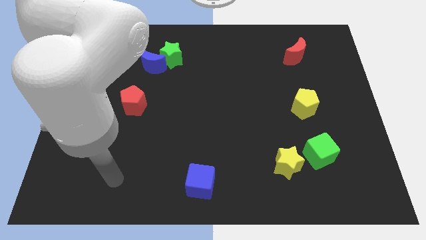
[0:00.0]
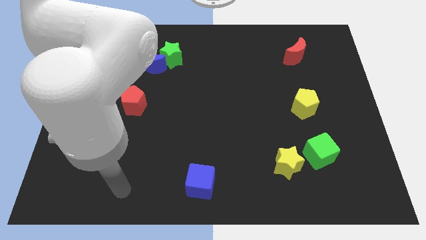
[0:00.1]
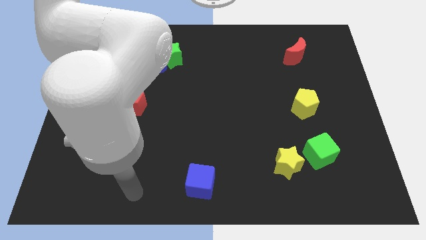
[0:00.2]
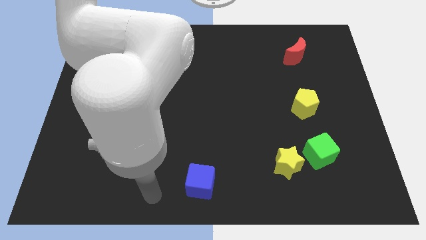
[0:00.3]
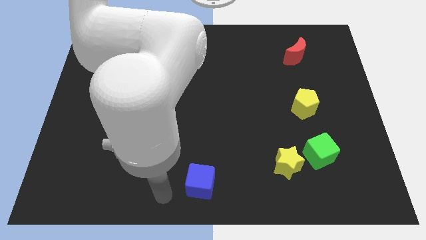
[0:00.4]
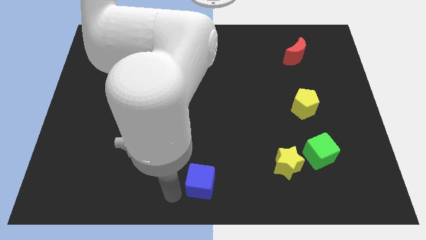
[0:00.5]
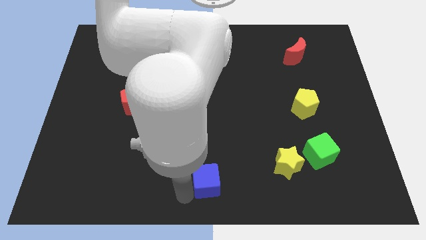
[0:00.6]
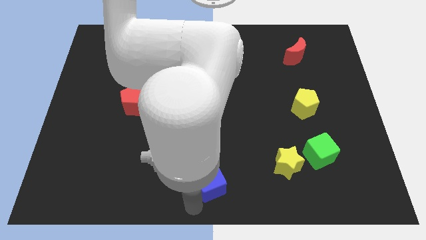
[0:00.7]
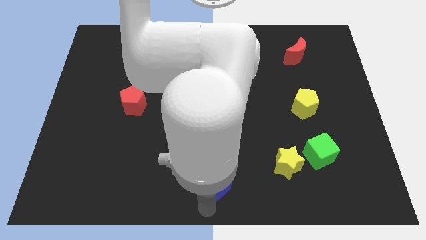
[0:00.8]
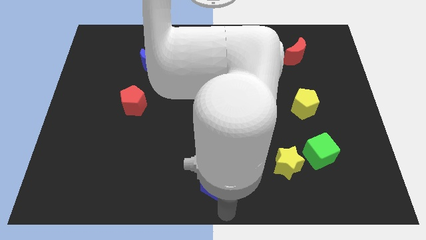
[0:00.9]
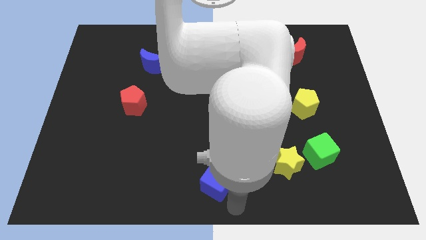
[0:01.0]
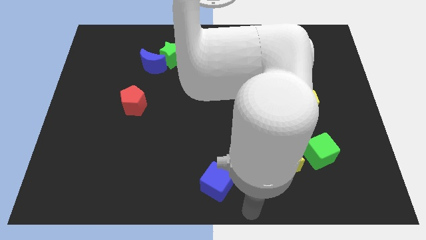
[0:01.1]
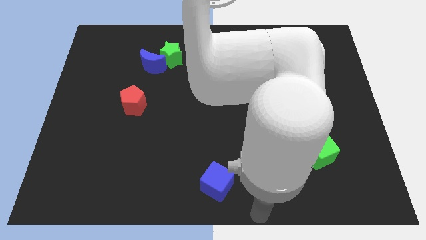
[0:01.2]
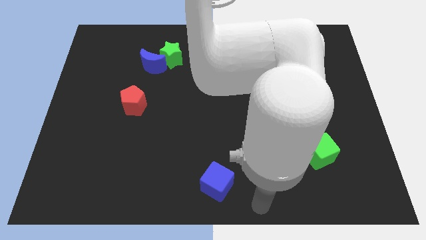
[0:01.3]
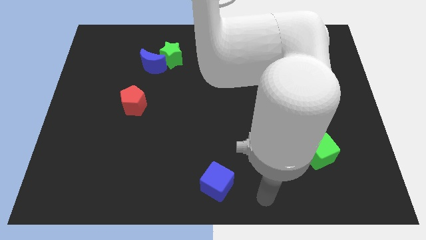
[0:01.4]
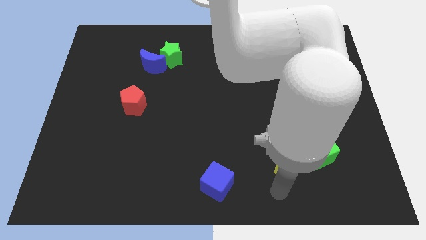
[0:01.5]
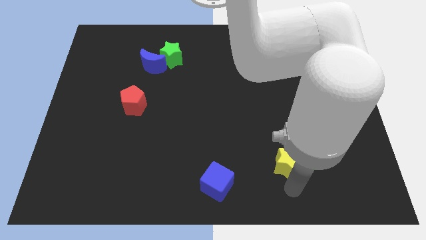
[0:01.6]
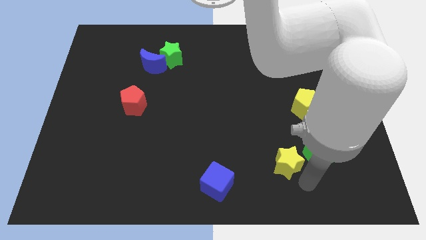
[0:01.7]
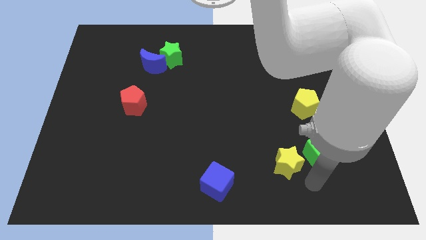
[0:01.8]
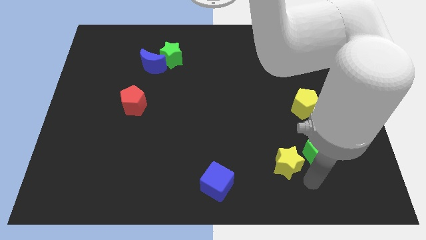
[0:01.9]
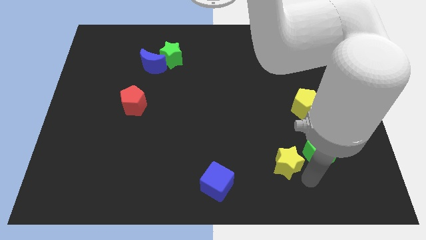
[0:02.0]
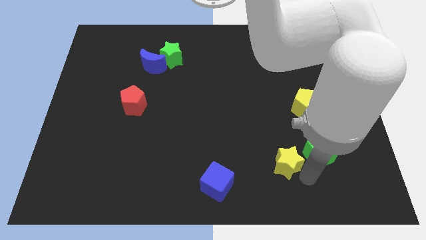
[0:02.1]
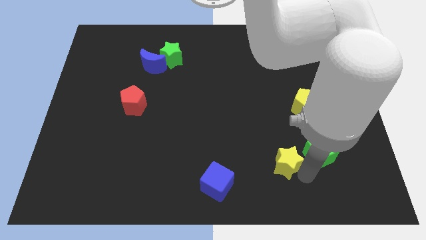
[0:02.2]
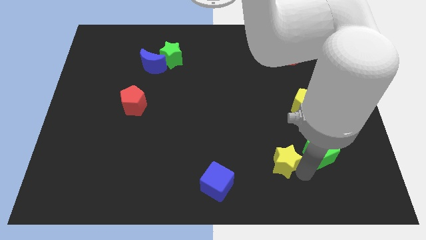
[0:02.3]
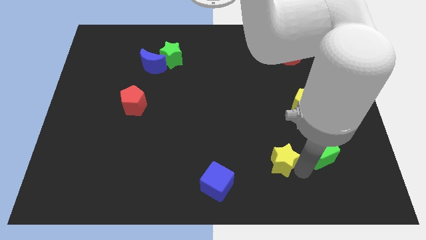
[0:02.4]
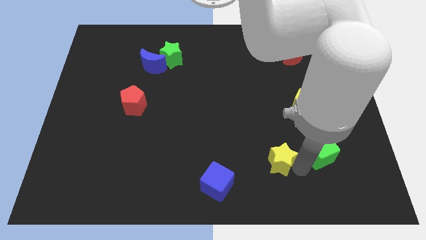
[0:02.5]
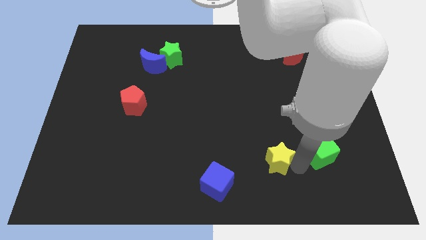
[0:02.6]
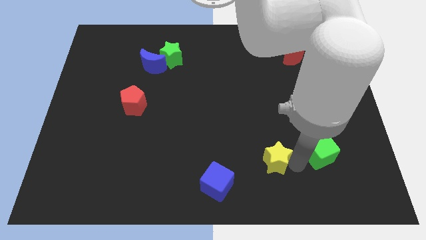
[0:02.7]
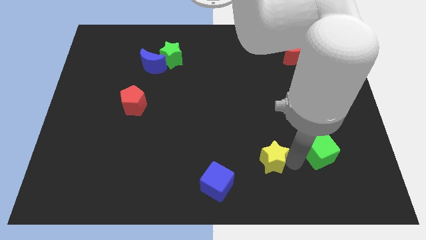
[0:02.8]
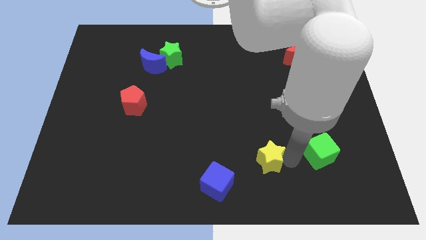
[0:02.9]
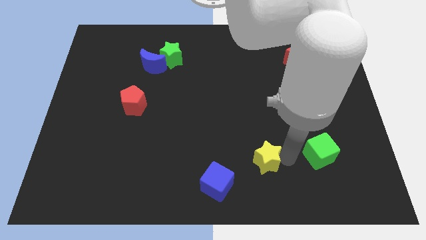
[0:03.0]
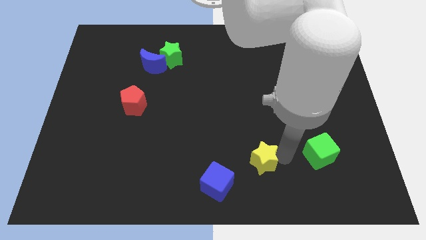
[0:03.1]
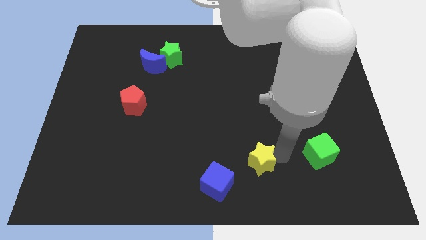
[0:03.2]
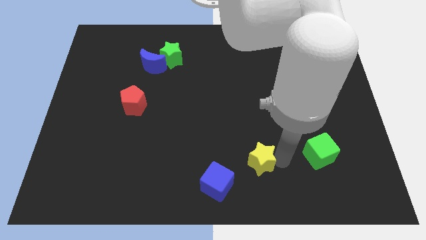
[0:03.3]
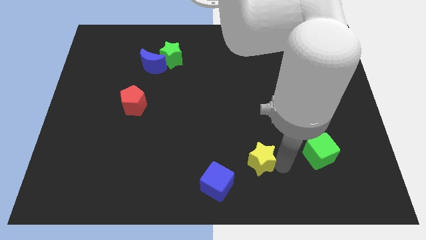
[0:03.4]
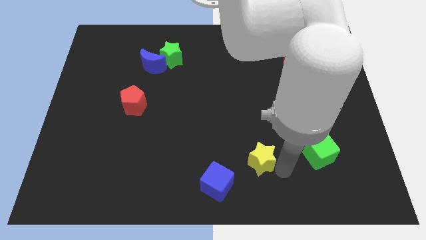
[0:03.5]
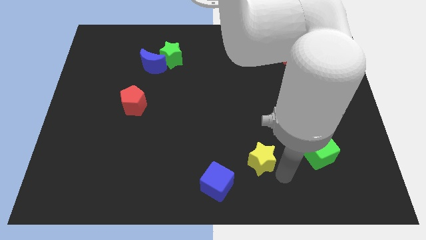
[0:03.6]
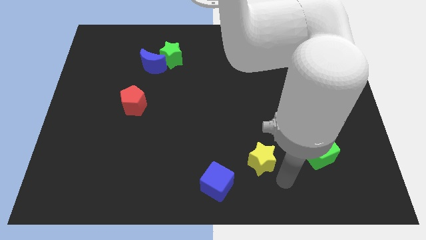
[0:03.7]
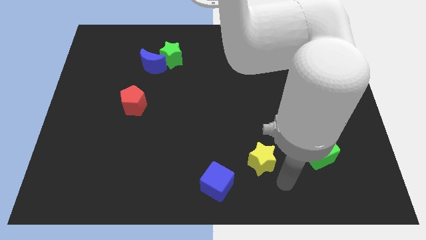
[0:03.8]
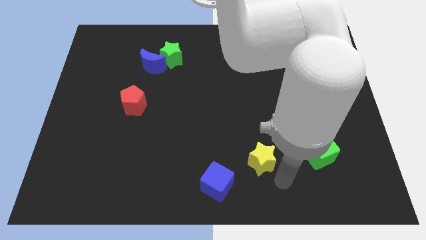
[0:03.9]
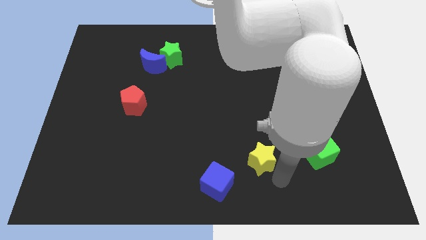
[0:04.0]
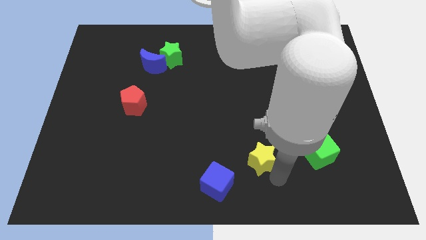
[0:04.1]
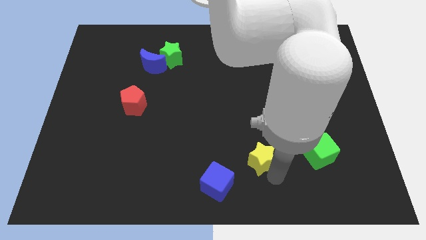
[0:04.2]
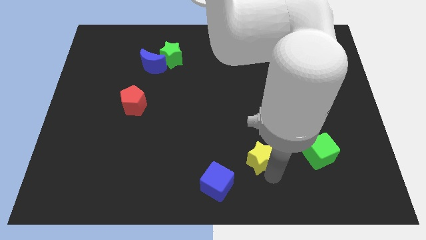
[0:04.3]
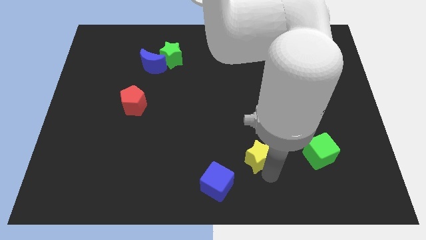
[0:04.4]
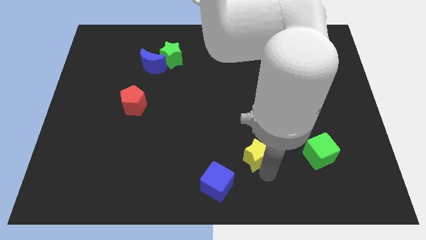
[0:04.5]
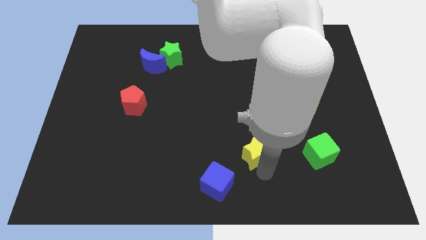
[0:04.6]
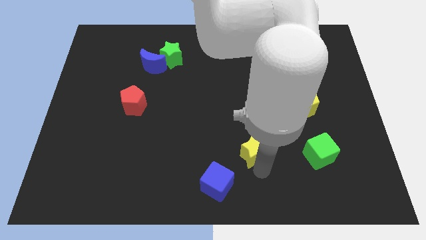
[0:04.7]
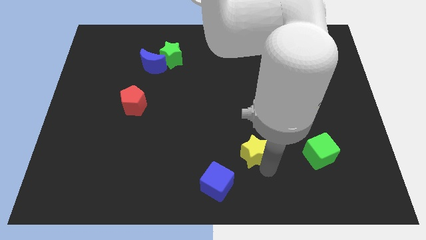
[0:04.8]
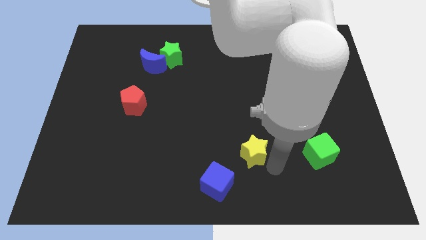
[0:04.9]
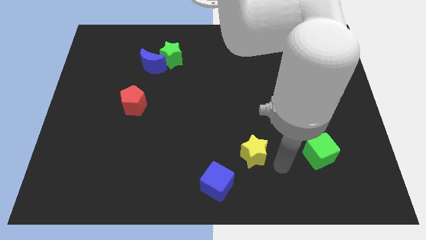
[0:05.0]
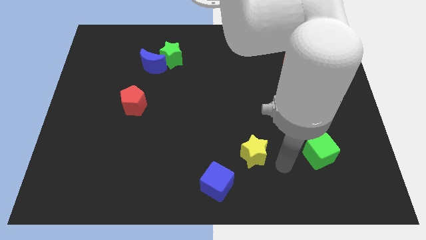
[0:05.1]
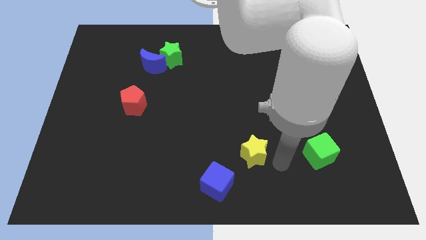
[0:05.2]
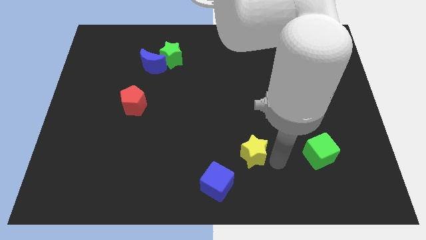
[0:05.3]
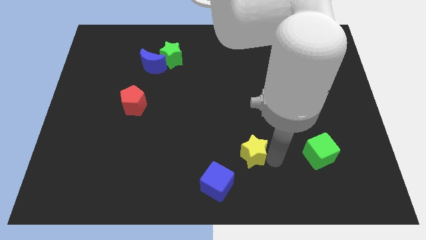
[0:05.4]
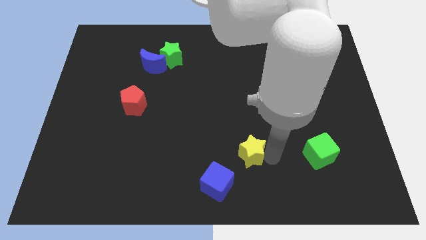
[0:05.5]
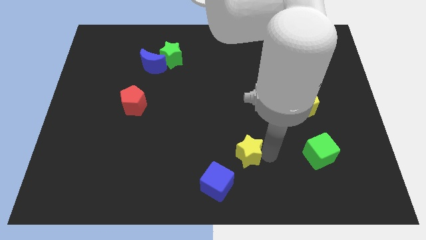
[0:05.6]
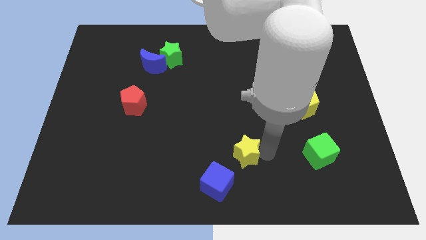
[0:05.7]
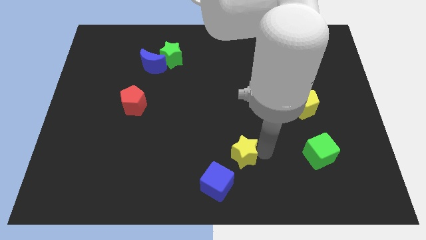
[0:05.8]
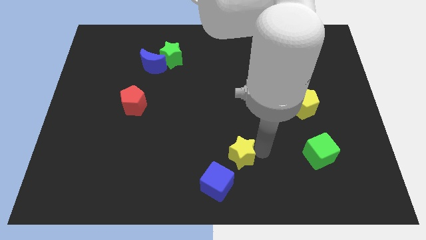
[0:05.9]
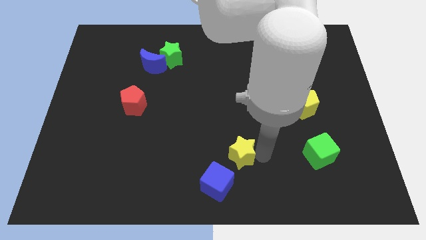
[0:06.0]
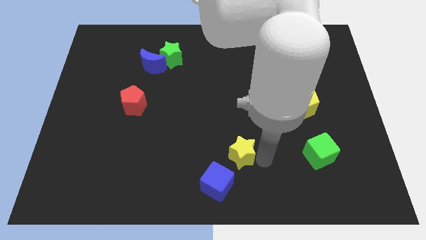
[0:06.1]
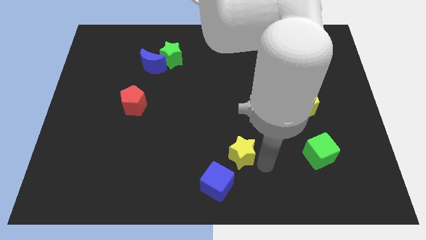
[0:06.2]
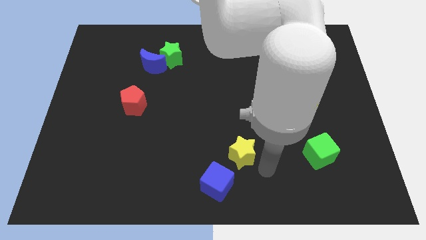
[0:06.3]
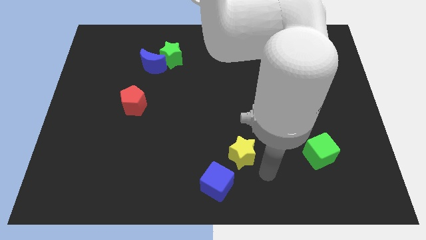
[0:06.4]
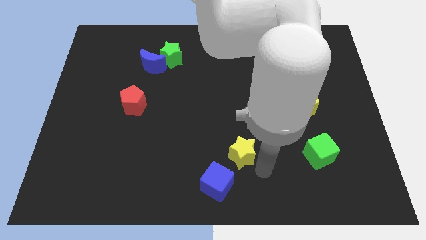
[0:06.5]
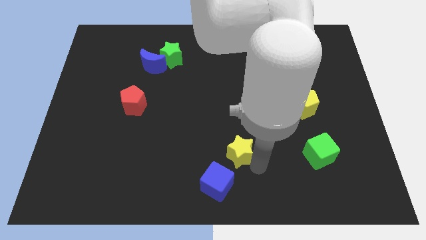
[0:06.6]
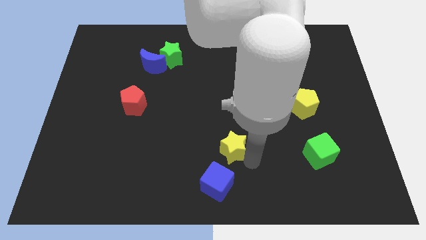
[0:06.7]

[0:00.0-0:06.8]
push the yellow star above the blue cube
